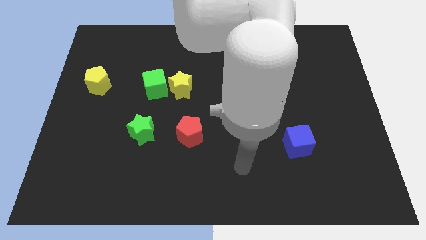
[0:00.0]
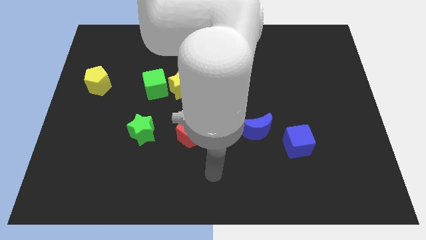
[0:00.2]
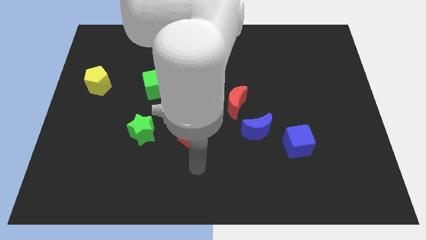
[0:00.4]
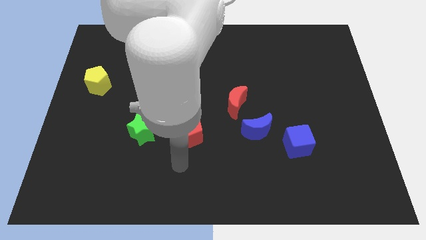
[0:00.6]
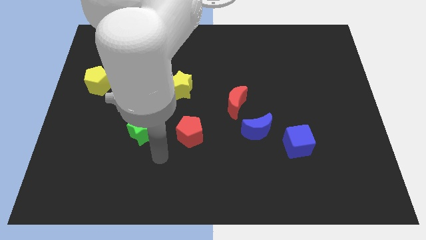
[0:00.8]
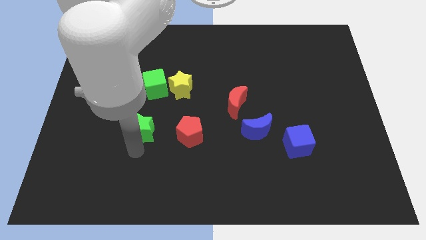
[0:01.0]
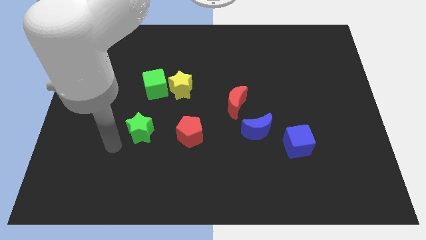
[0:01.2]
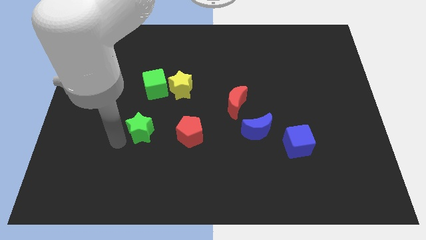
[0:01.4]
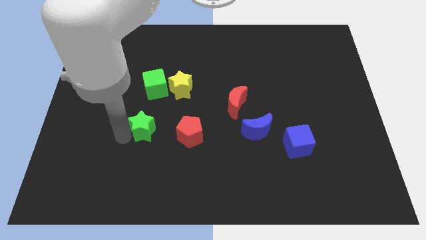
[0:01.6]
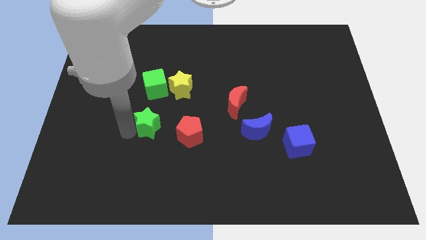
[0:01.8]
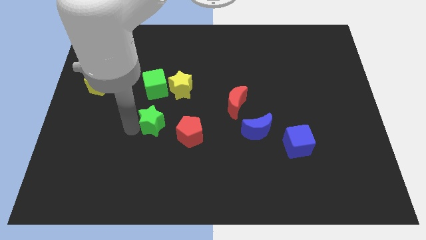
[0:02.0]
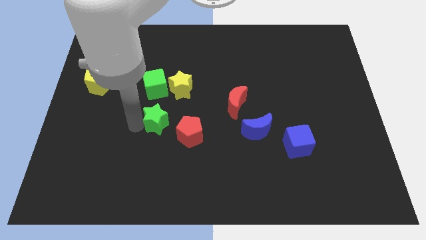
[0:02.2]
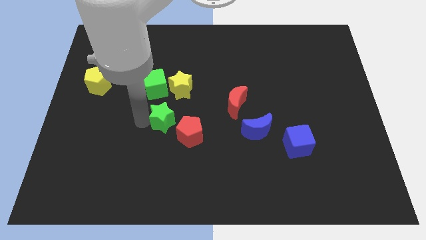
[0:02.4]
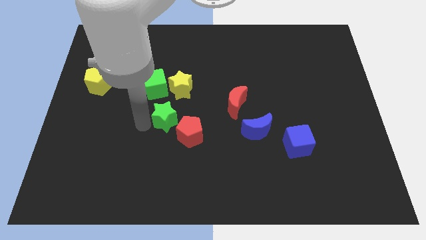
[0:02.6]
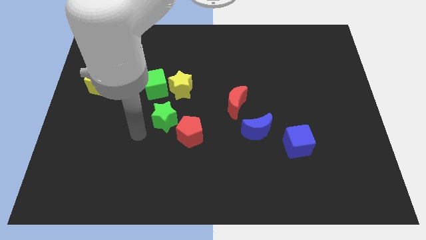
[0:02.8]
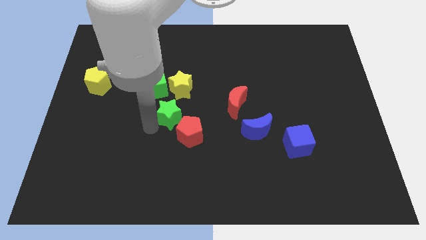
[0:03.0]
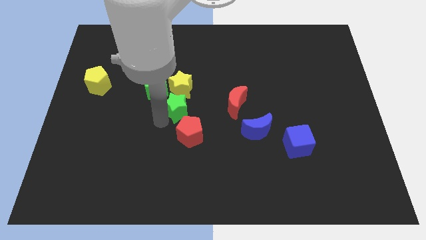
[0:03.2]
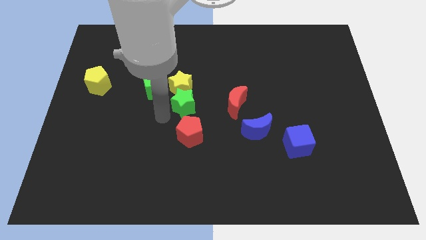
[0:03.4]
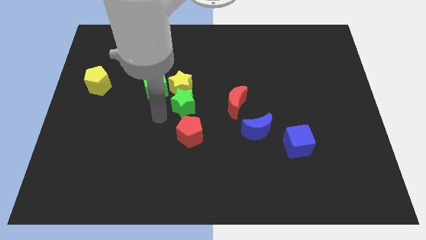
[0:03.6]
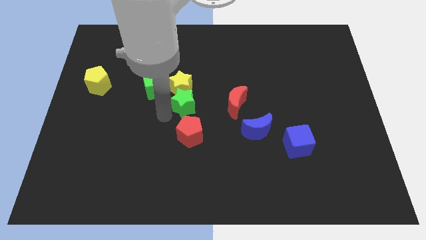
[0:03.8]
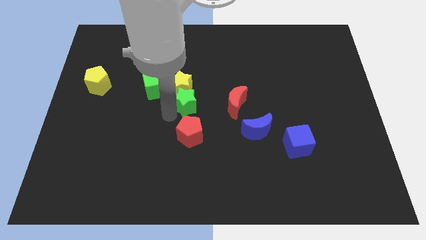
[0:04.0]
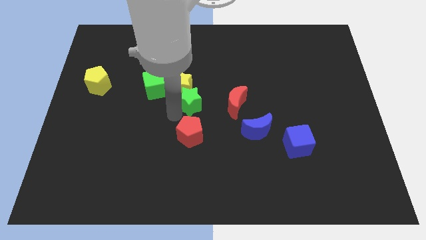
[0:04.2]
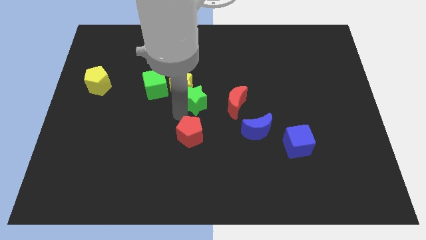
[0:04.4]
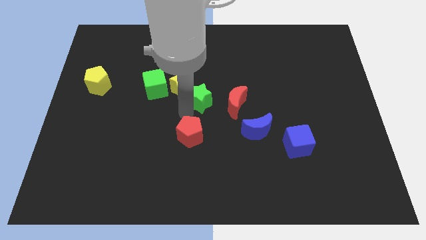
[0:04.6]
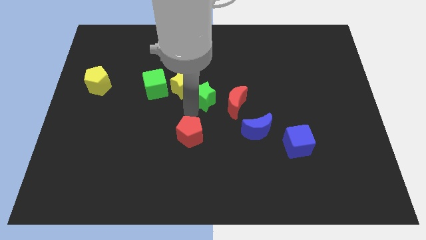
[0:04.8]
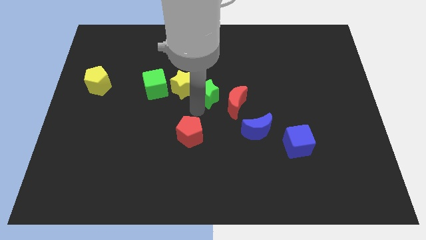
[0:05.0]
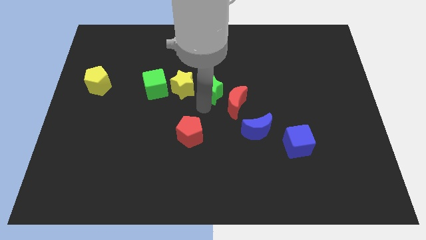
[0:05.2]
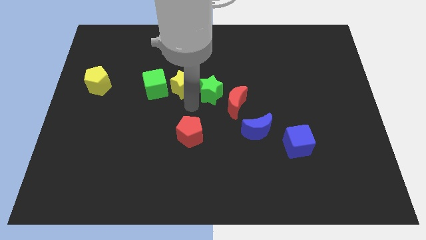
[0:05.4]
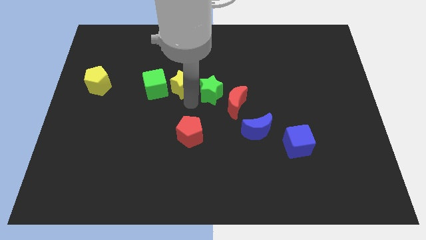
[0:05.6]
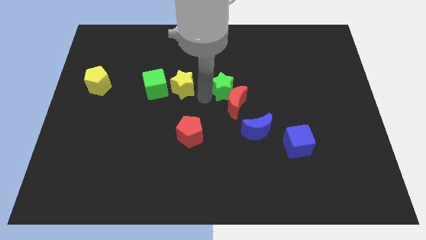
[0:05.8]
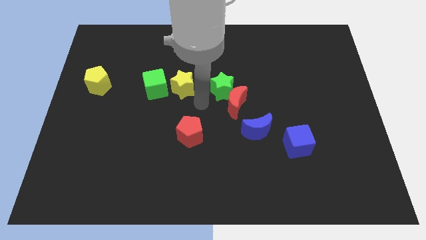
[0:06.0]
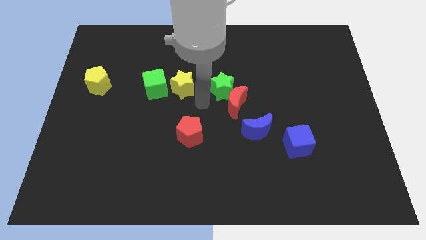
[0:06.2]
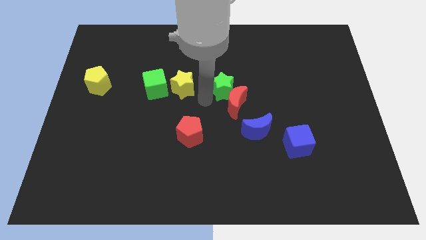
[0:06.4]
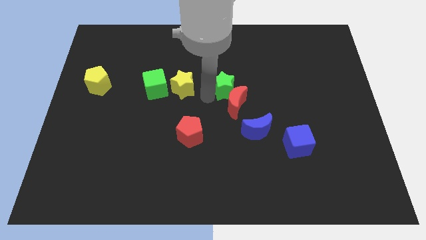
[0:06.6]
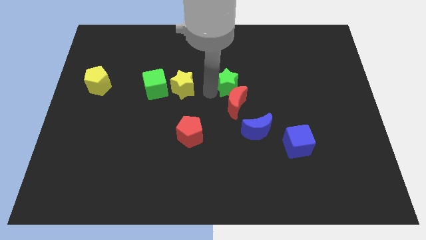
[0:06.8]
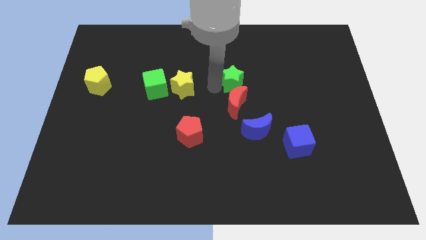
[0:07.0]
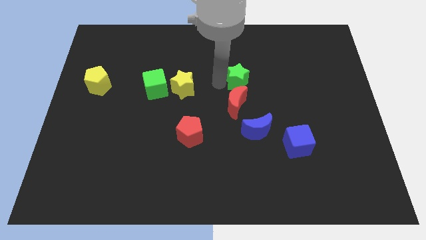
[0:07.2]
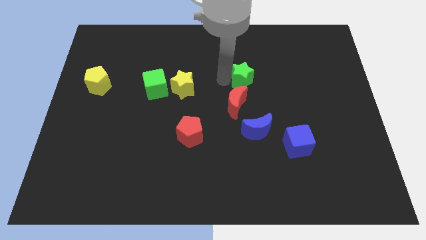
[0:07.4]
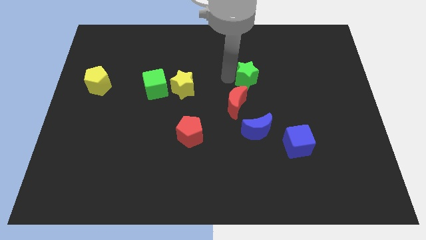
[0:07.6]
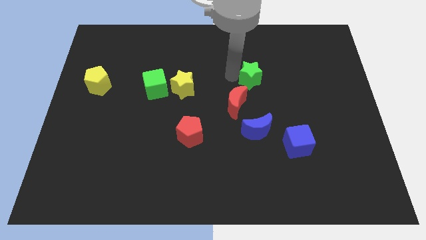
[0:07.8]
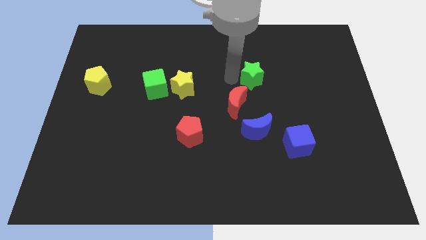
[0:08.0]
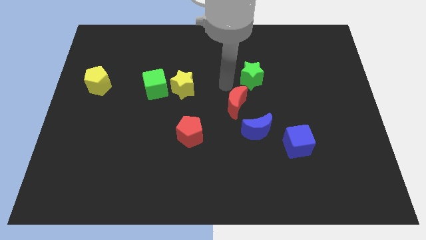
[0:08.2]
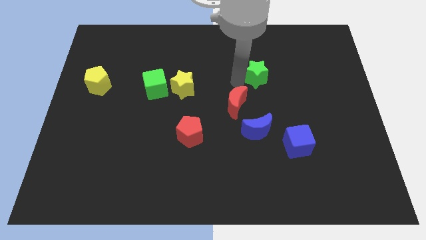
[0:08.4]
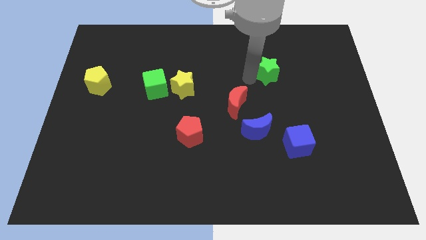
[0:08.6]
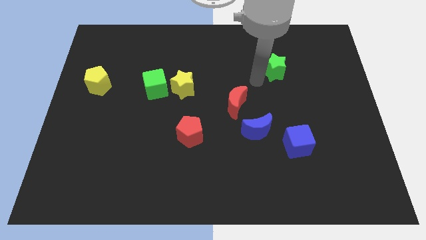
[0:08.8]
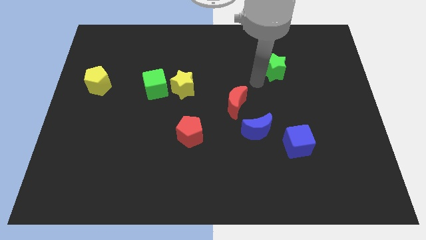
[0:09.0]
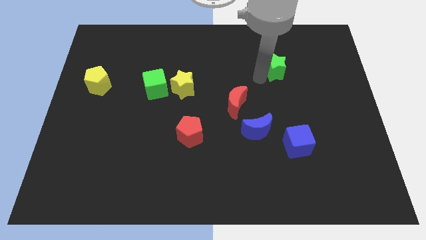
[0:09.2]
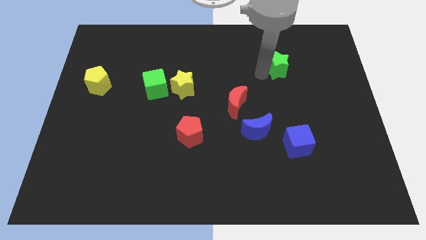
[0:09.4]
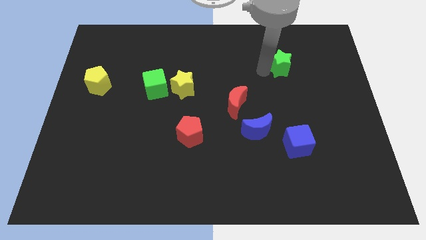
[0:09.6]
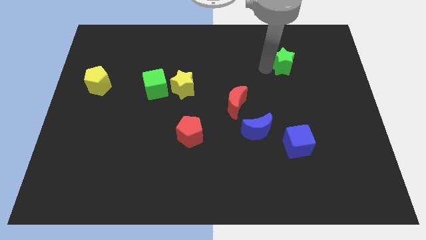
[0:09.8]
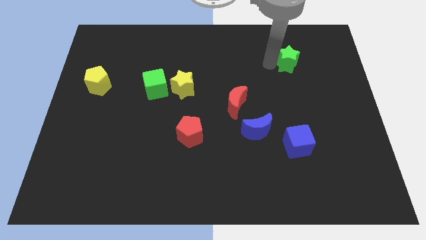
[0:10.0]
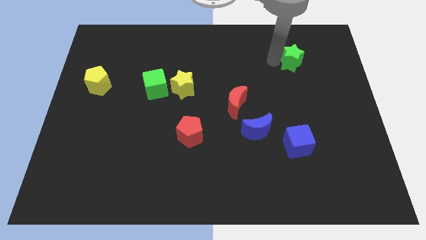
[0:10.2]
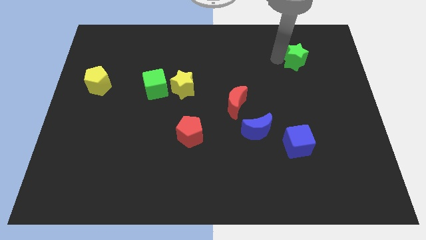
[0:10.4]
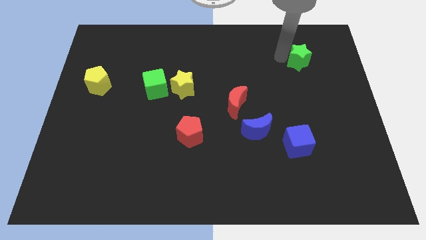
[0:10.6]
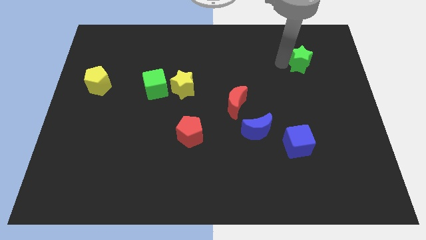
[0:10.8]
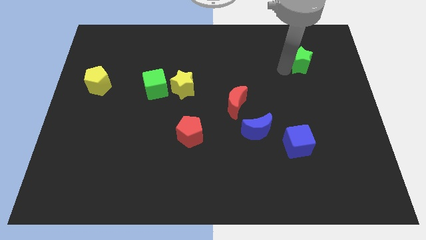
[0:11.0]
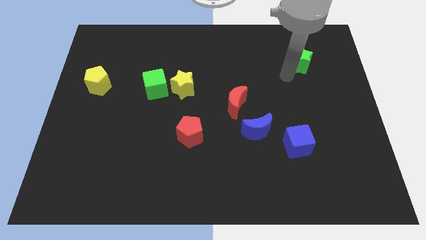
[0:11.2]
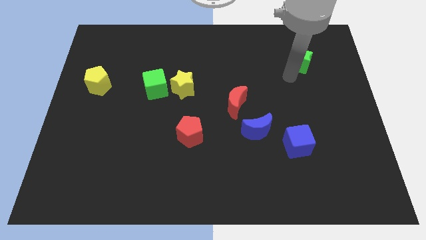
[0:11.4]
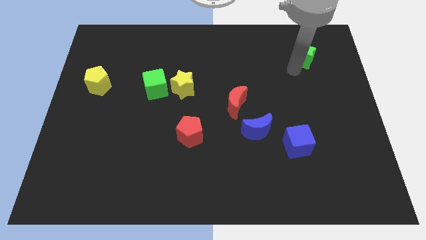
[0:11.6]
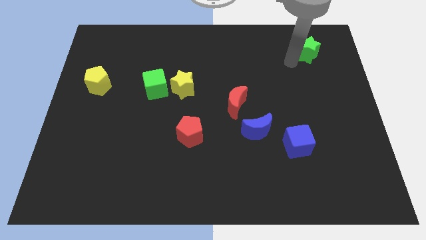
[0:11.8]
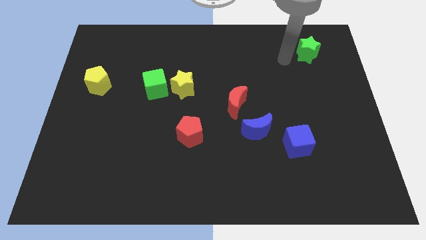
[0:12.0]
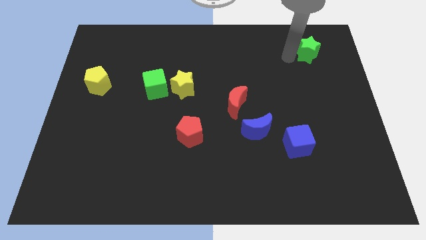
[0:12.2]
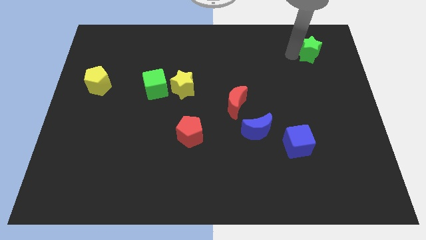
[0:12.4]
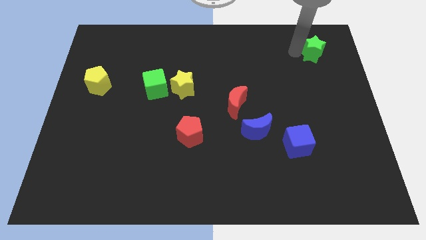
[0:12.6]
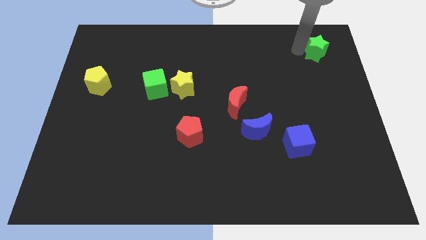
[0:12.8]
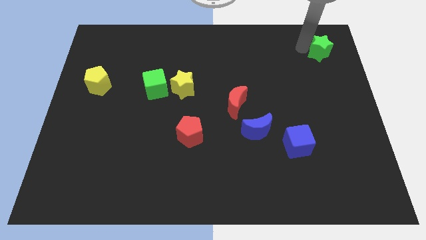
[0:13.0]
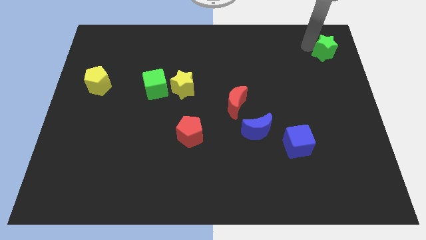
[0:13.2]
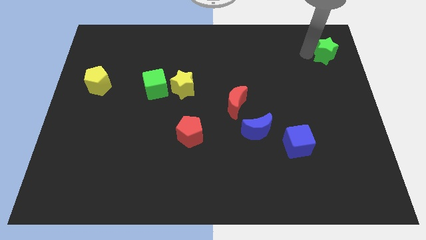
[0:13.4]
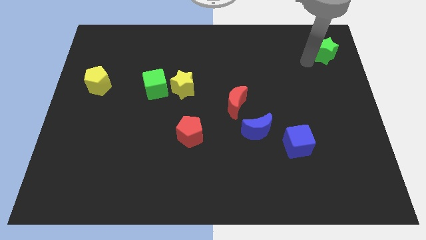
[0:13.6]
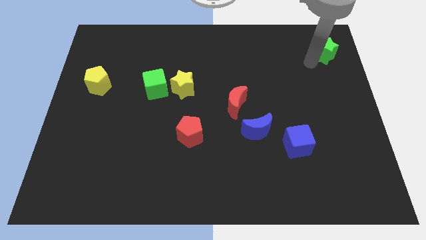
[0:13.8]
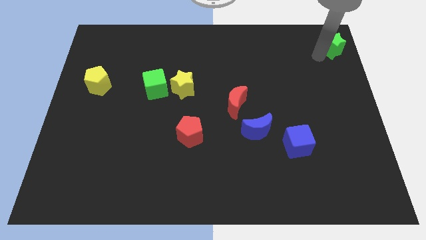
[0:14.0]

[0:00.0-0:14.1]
slide the green star to the top right corner
